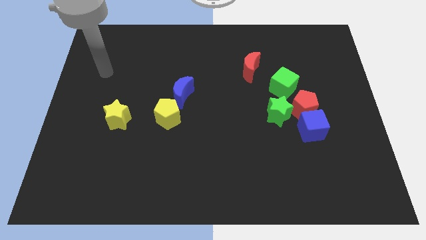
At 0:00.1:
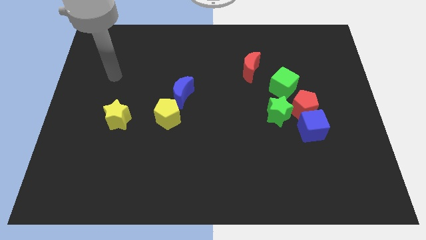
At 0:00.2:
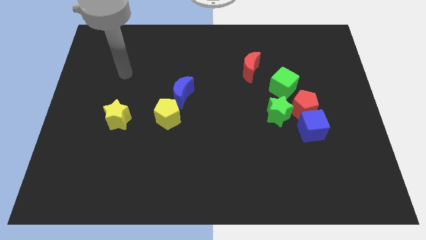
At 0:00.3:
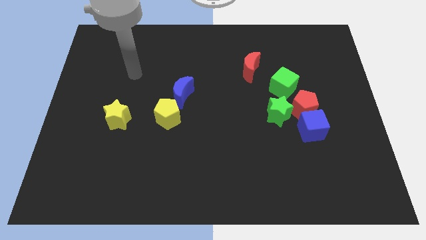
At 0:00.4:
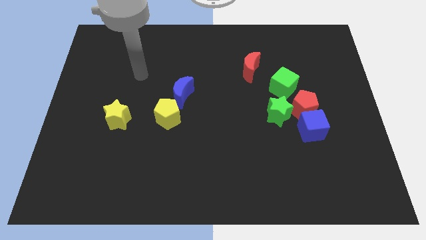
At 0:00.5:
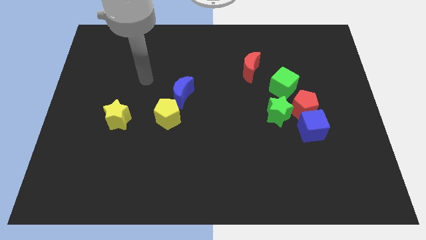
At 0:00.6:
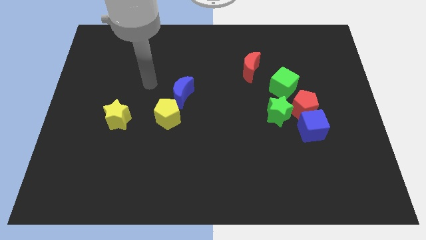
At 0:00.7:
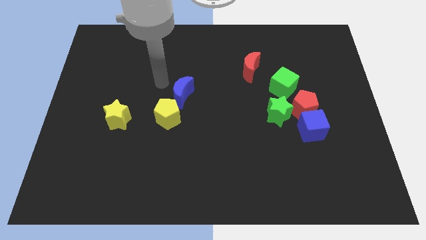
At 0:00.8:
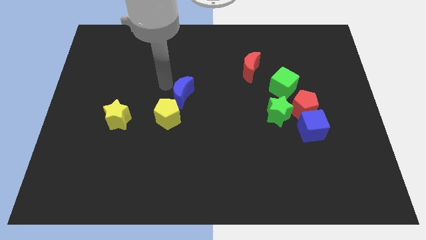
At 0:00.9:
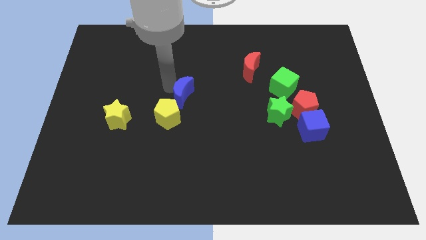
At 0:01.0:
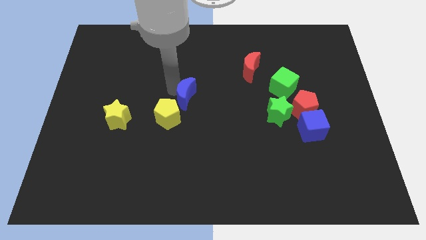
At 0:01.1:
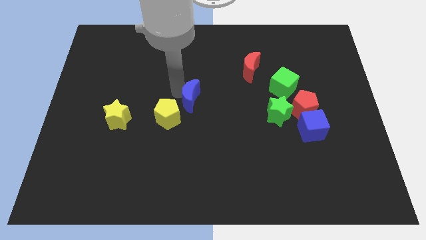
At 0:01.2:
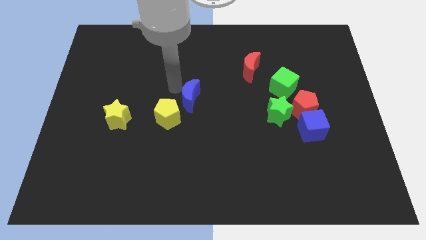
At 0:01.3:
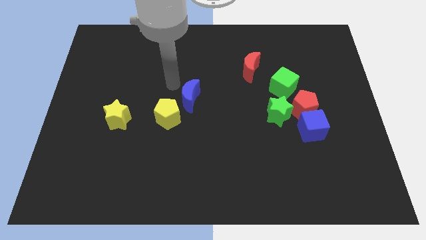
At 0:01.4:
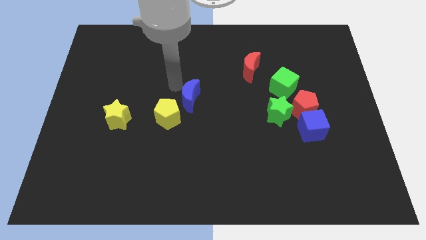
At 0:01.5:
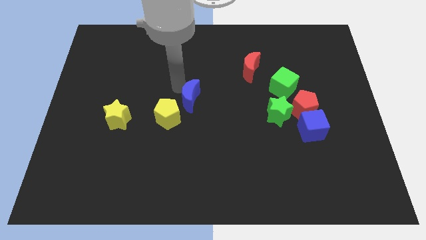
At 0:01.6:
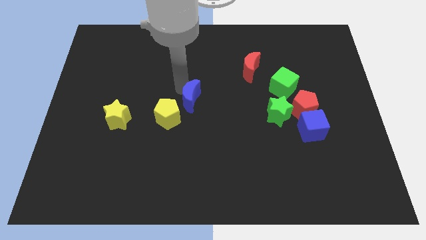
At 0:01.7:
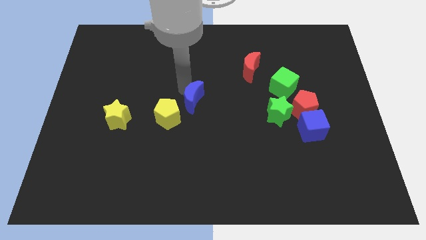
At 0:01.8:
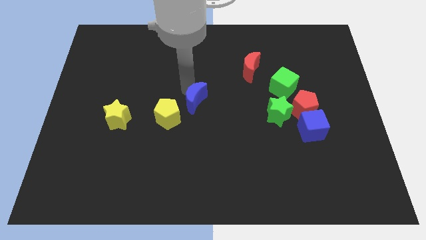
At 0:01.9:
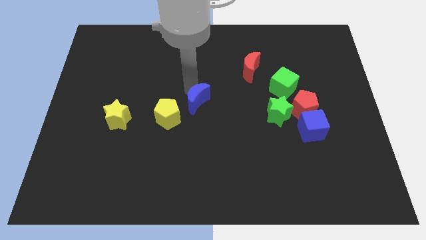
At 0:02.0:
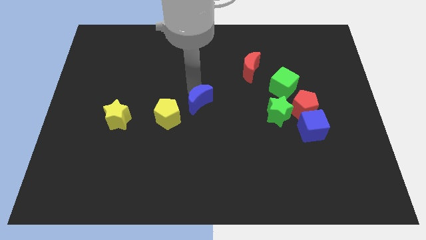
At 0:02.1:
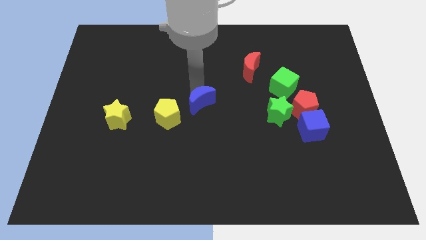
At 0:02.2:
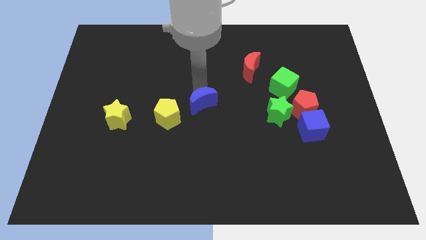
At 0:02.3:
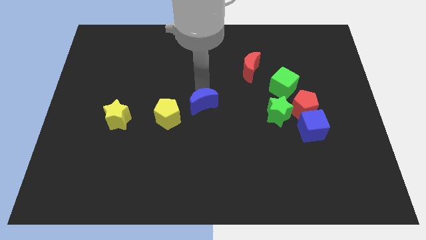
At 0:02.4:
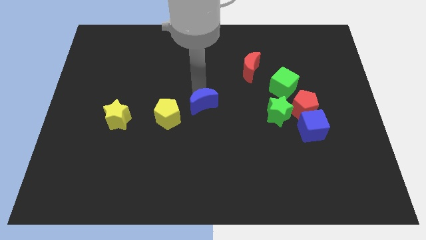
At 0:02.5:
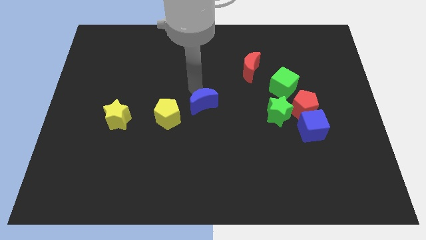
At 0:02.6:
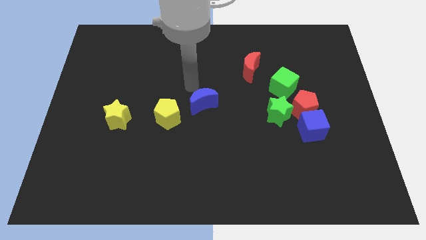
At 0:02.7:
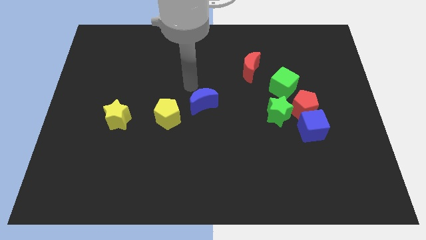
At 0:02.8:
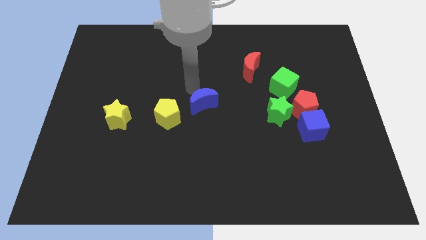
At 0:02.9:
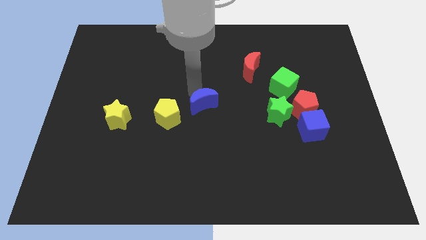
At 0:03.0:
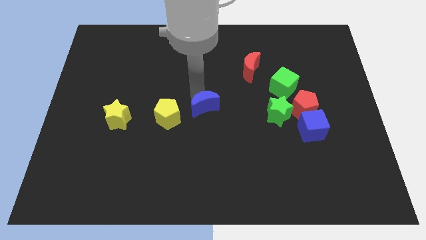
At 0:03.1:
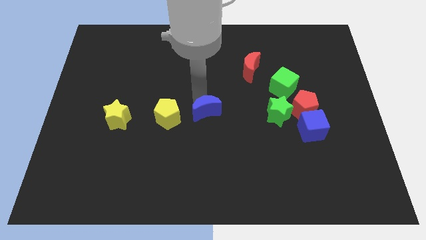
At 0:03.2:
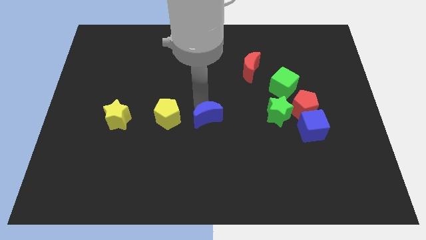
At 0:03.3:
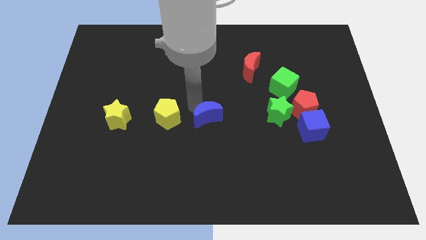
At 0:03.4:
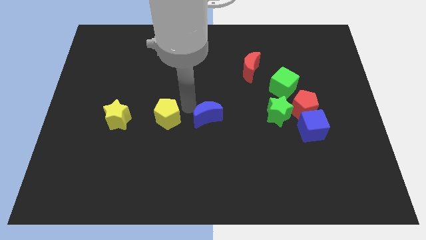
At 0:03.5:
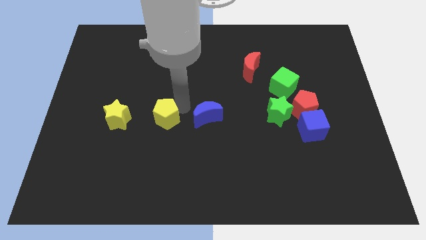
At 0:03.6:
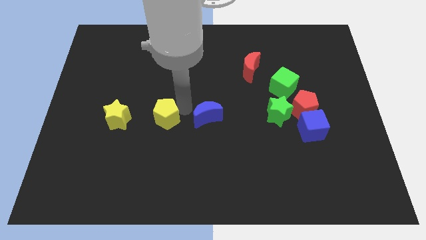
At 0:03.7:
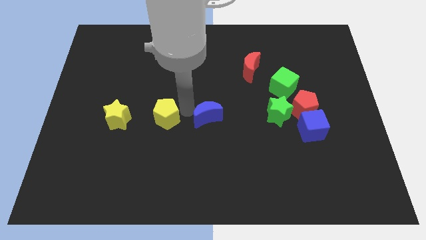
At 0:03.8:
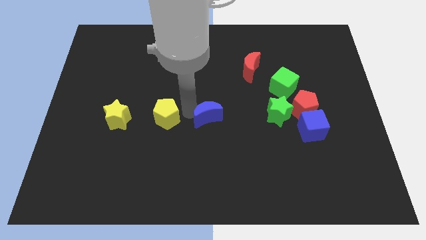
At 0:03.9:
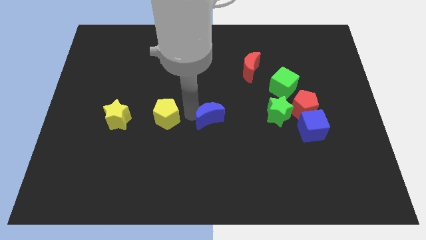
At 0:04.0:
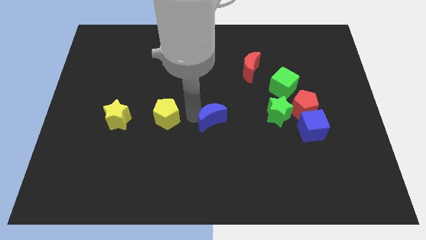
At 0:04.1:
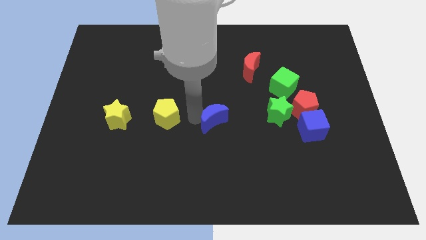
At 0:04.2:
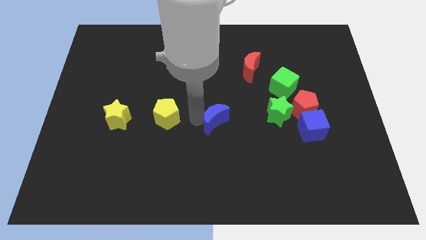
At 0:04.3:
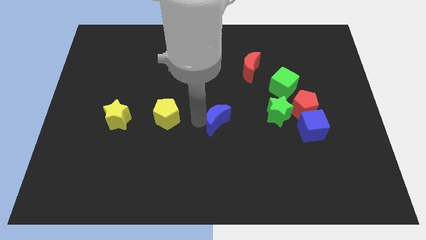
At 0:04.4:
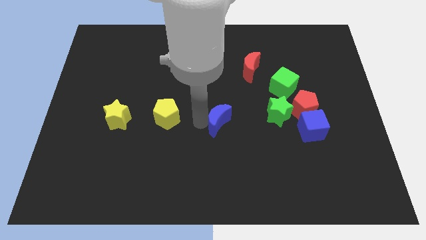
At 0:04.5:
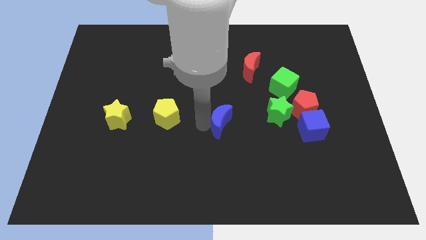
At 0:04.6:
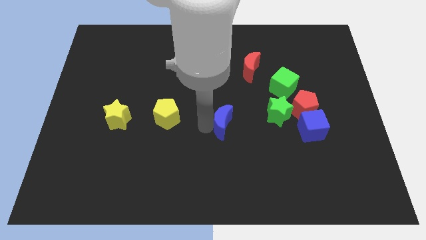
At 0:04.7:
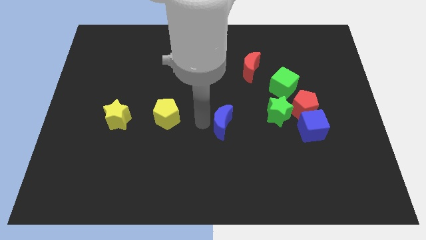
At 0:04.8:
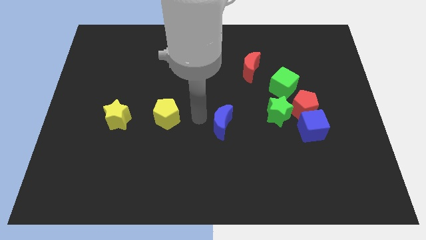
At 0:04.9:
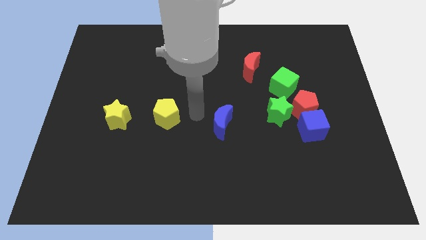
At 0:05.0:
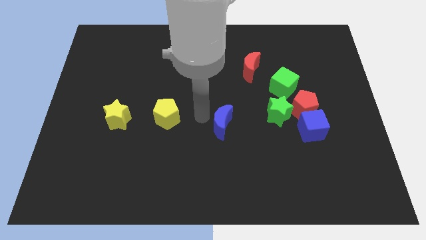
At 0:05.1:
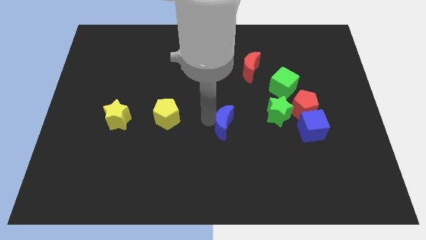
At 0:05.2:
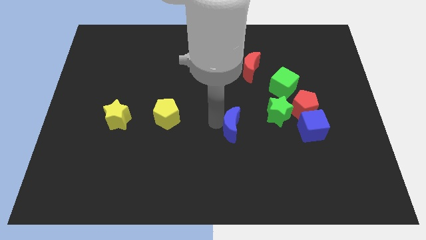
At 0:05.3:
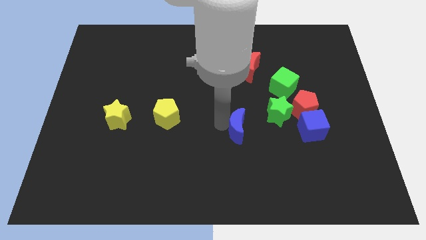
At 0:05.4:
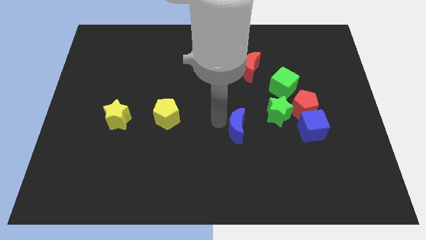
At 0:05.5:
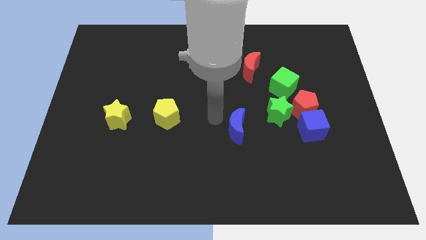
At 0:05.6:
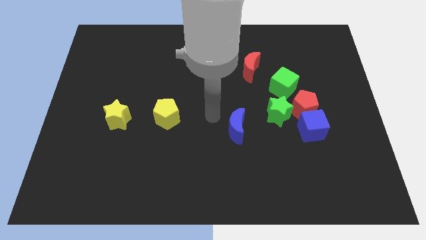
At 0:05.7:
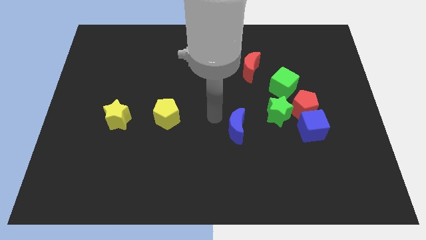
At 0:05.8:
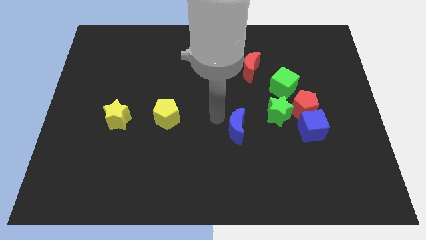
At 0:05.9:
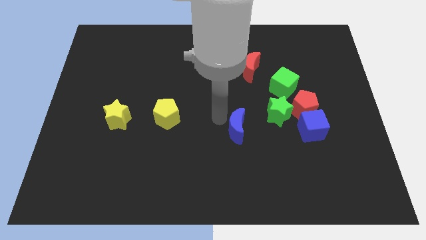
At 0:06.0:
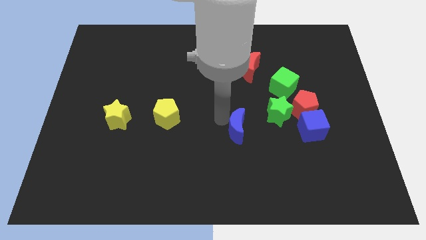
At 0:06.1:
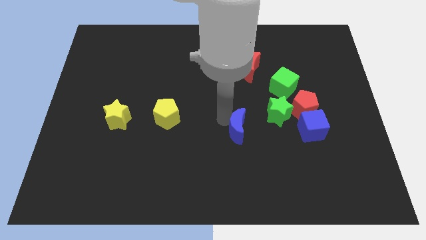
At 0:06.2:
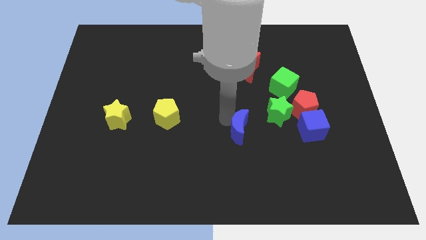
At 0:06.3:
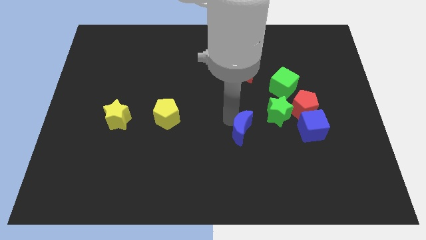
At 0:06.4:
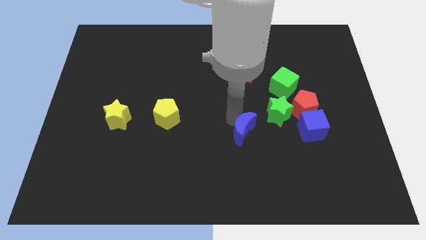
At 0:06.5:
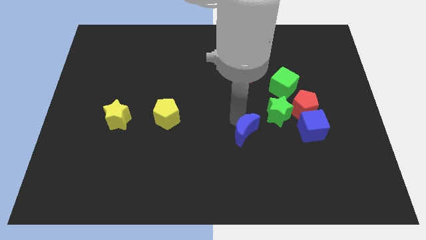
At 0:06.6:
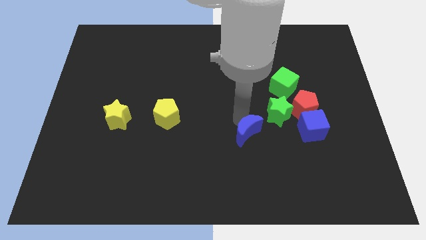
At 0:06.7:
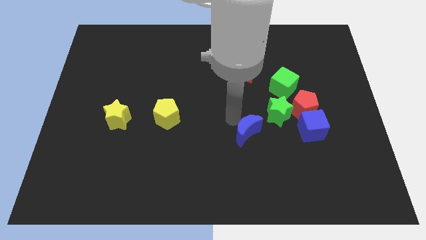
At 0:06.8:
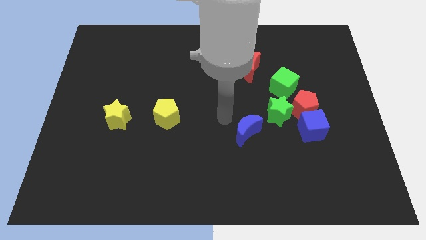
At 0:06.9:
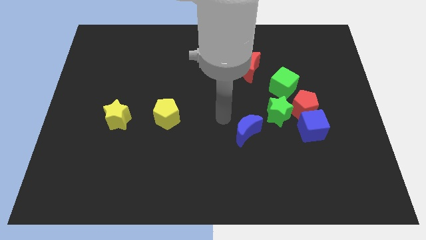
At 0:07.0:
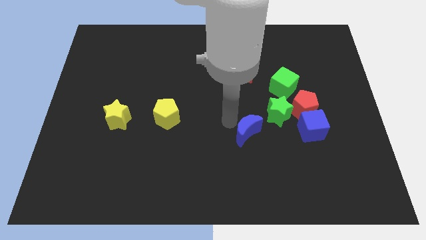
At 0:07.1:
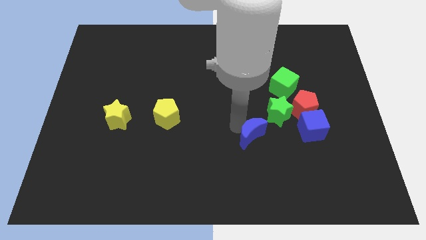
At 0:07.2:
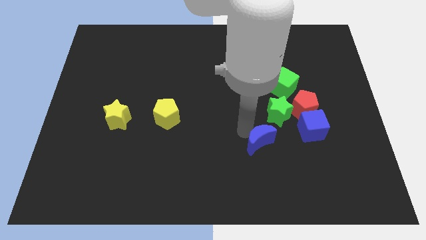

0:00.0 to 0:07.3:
move the blue moon to the bottom side of the green star
